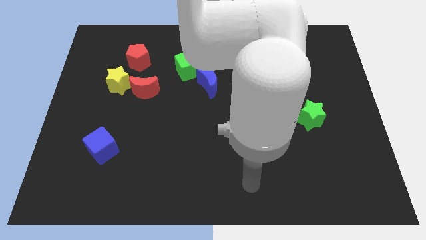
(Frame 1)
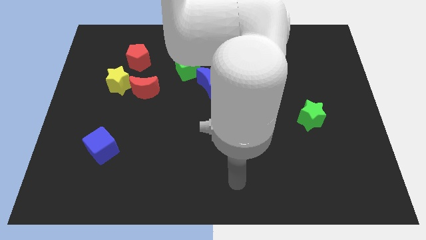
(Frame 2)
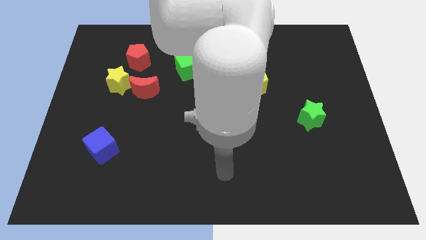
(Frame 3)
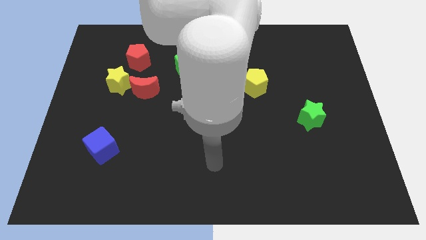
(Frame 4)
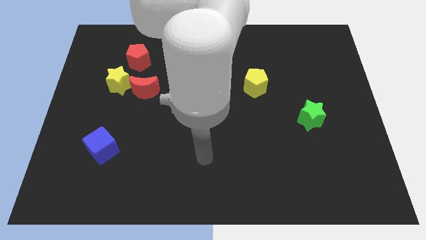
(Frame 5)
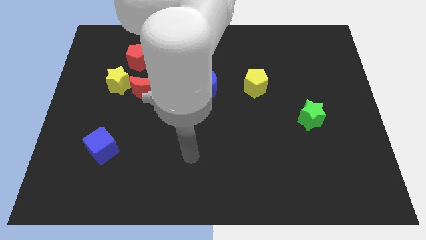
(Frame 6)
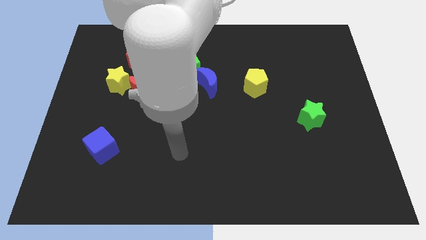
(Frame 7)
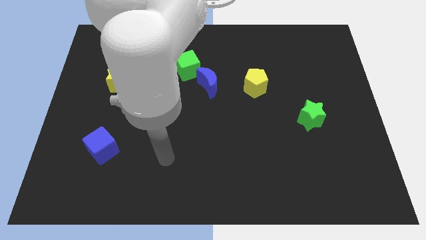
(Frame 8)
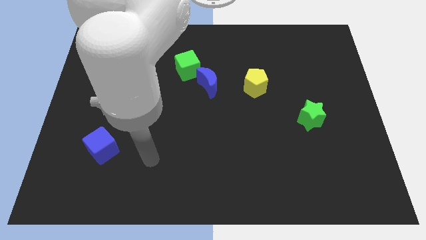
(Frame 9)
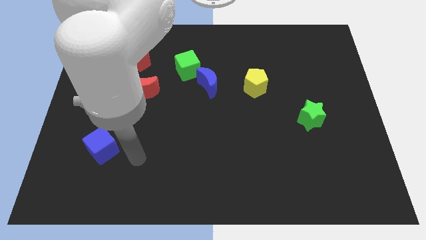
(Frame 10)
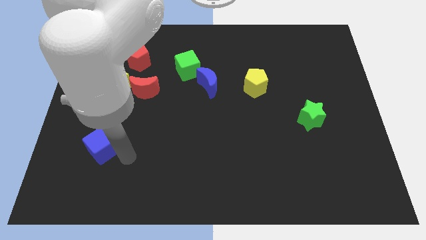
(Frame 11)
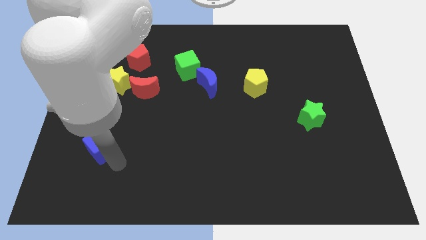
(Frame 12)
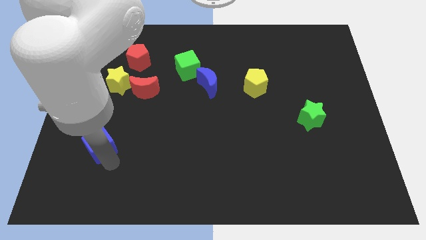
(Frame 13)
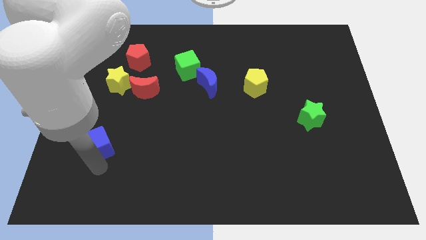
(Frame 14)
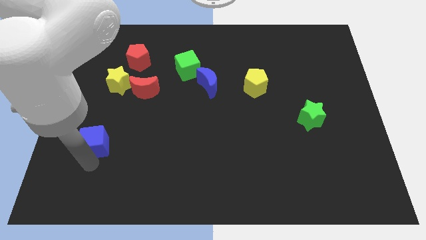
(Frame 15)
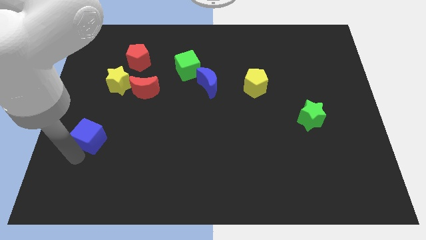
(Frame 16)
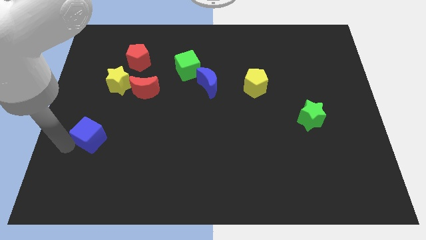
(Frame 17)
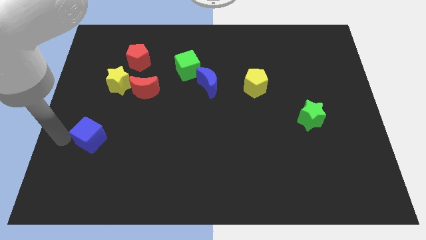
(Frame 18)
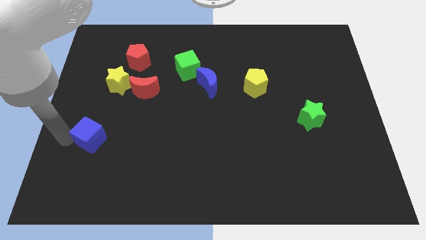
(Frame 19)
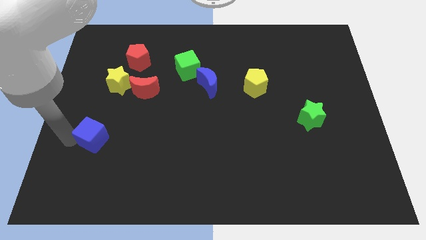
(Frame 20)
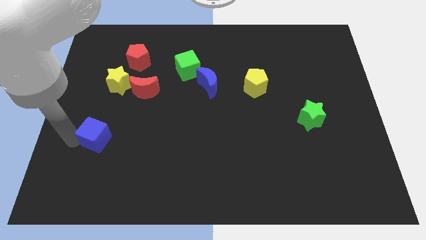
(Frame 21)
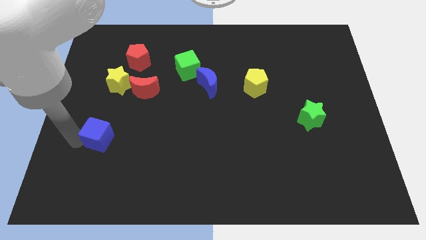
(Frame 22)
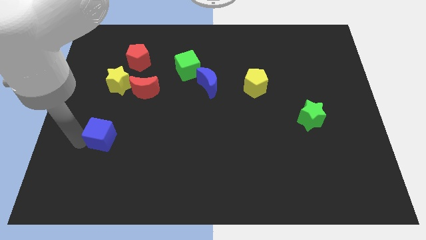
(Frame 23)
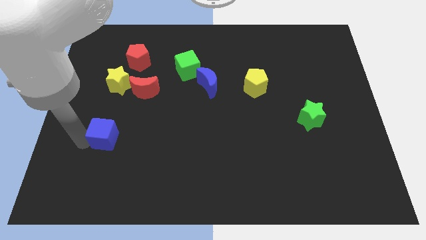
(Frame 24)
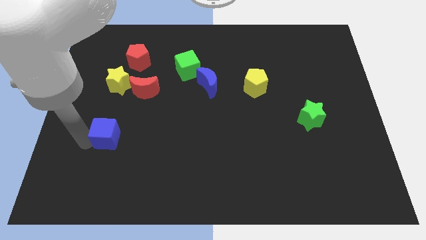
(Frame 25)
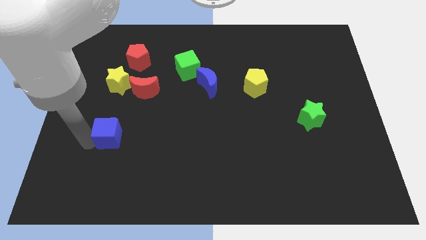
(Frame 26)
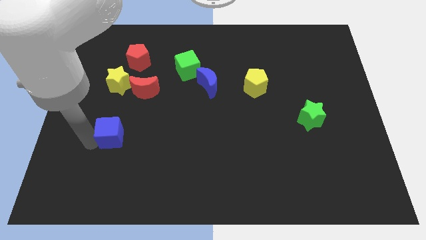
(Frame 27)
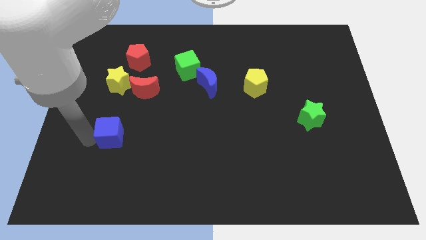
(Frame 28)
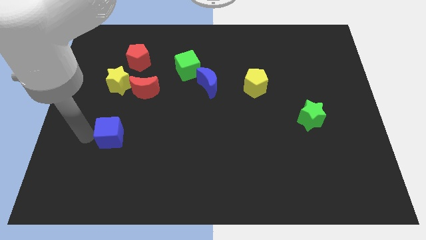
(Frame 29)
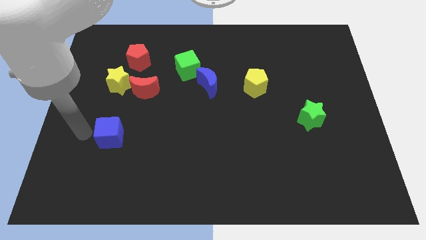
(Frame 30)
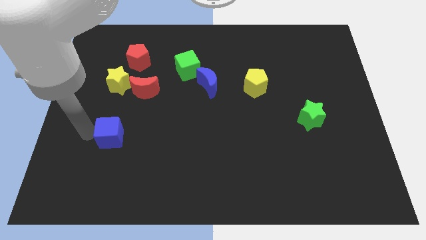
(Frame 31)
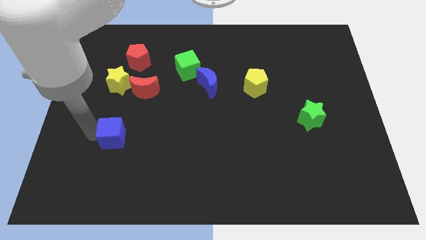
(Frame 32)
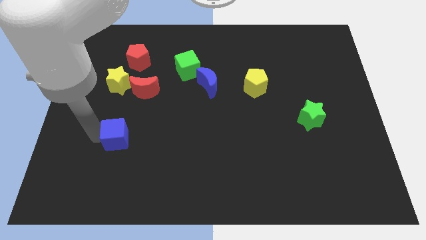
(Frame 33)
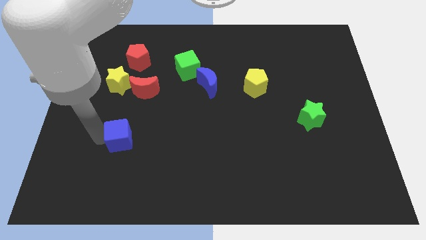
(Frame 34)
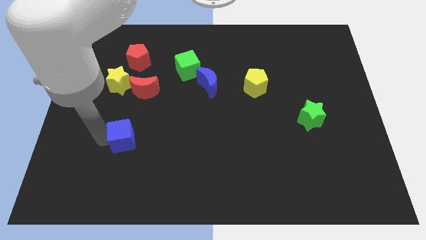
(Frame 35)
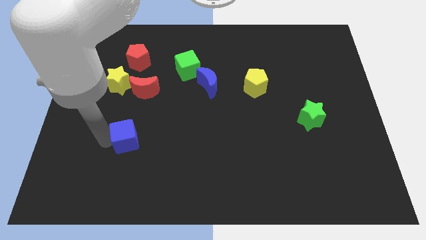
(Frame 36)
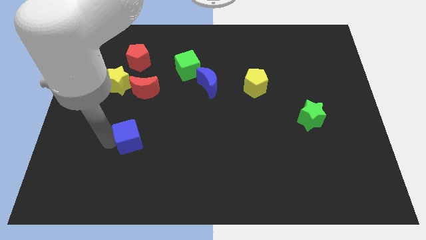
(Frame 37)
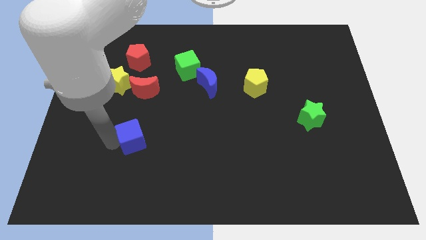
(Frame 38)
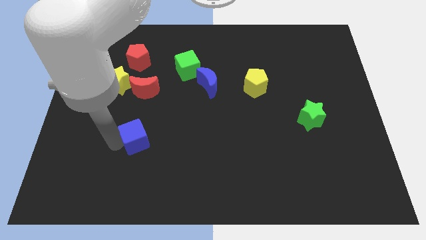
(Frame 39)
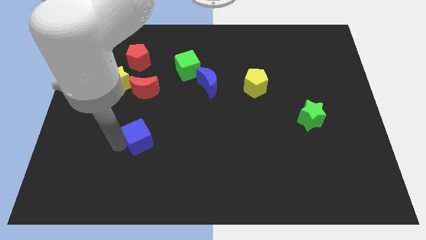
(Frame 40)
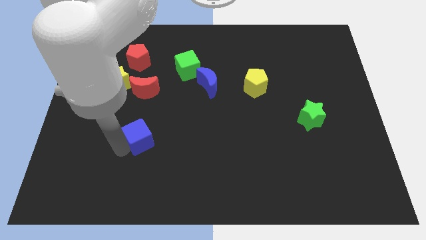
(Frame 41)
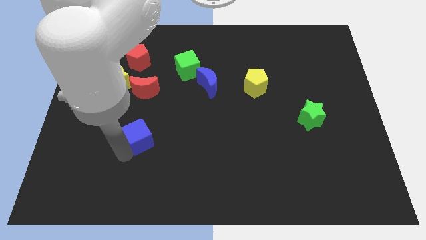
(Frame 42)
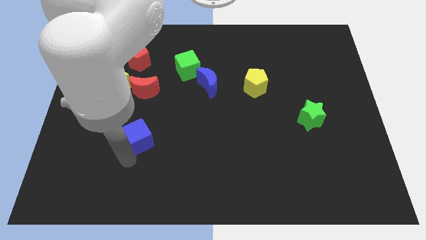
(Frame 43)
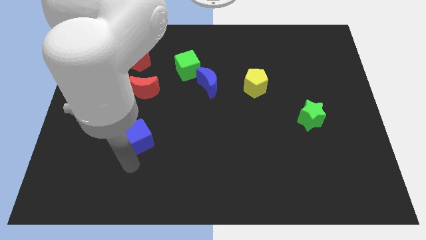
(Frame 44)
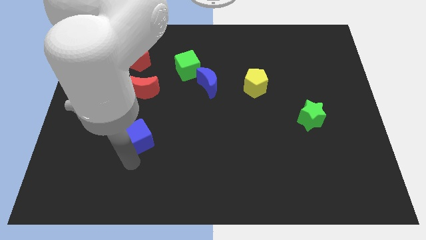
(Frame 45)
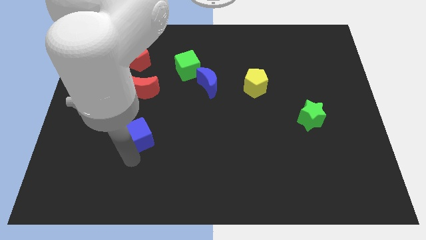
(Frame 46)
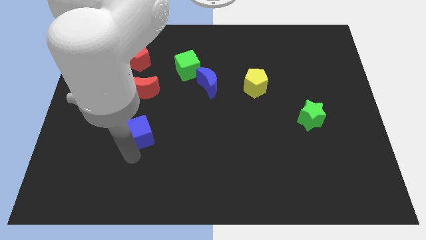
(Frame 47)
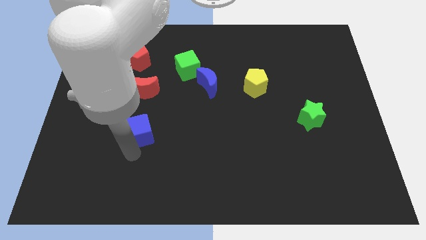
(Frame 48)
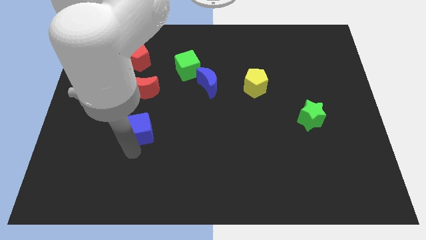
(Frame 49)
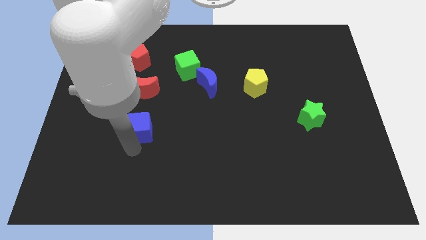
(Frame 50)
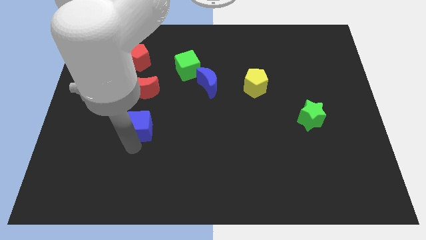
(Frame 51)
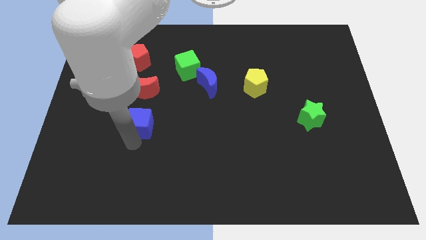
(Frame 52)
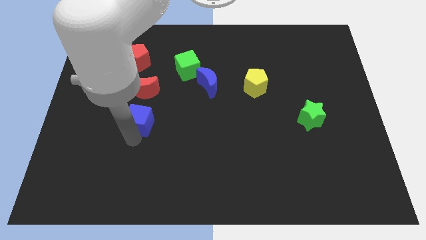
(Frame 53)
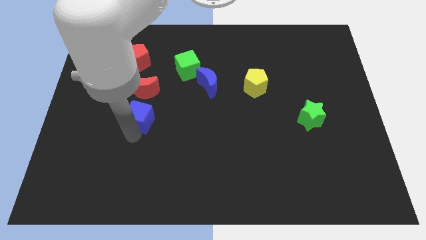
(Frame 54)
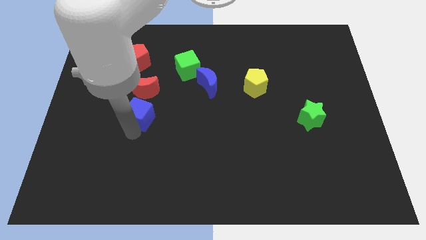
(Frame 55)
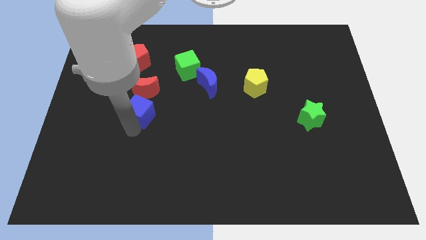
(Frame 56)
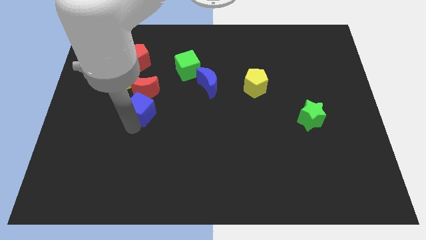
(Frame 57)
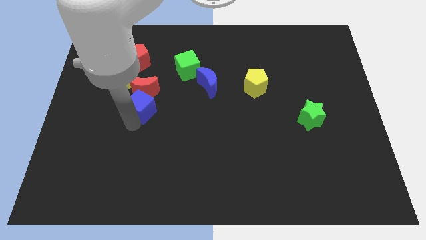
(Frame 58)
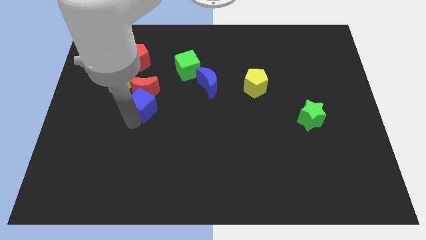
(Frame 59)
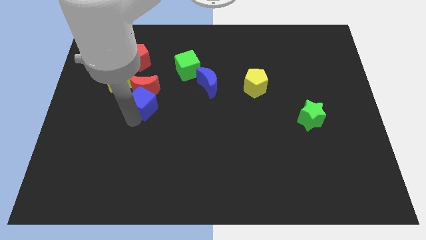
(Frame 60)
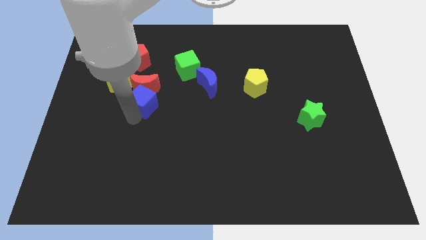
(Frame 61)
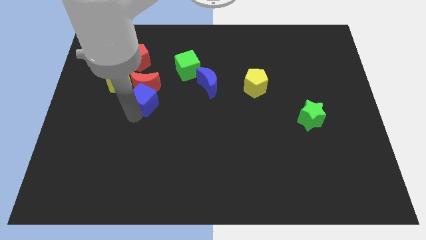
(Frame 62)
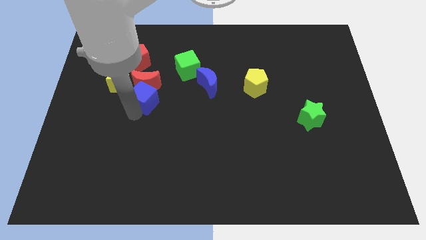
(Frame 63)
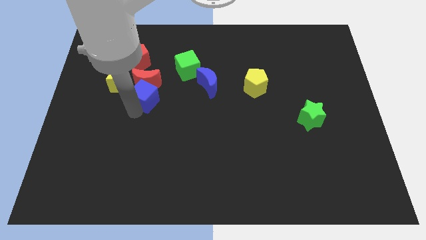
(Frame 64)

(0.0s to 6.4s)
put the blue cube to the right side of the yellow star

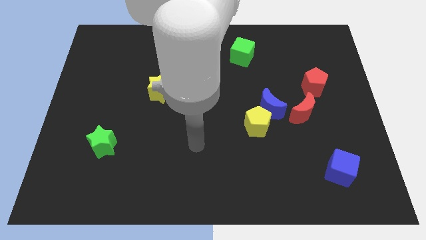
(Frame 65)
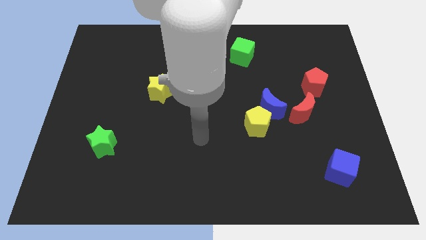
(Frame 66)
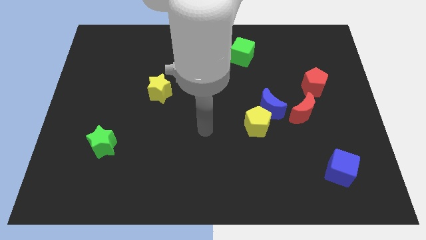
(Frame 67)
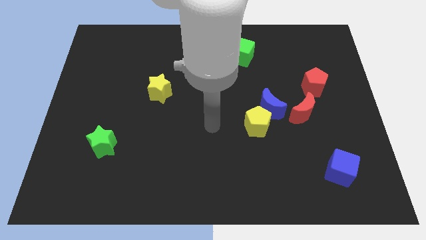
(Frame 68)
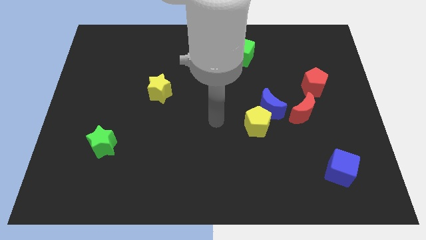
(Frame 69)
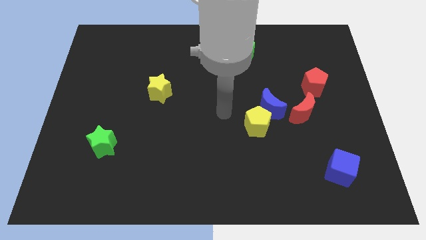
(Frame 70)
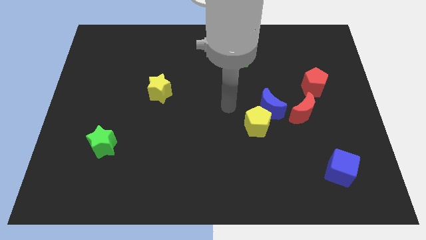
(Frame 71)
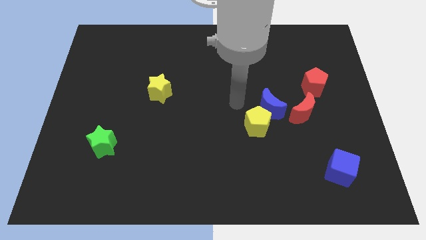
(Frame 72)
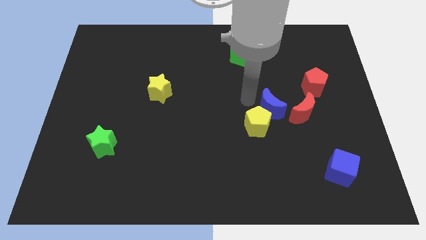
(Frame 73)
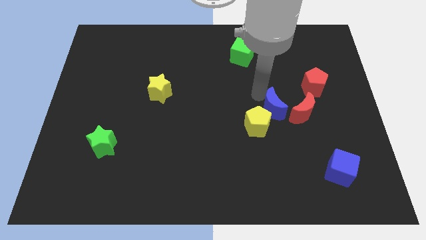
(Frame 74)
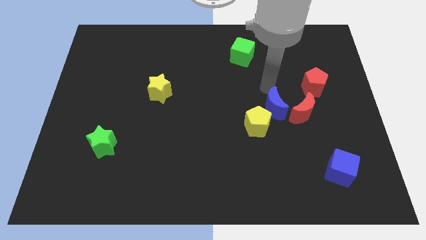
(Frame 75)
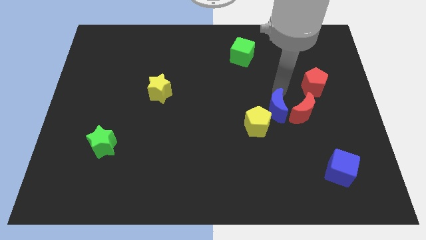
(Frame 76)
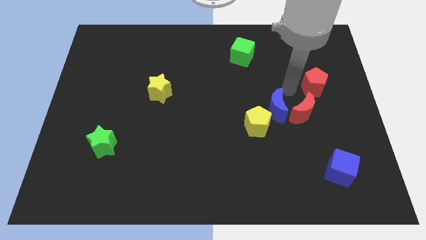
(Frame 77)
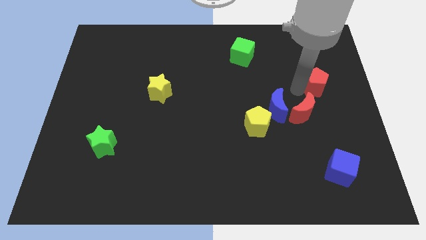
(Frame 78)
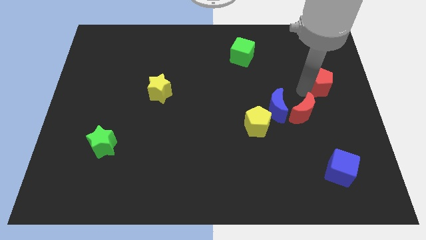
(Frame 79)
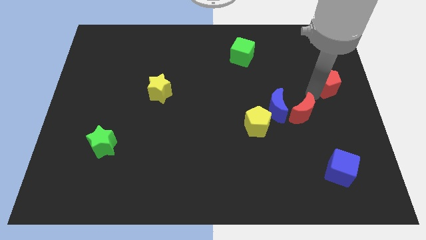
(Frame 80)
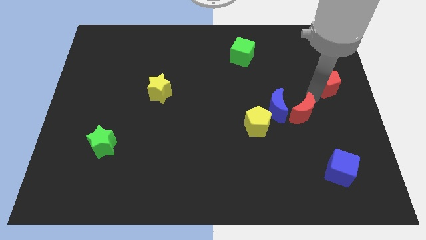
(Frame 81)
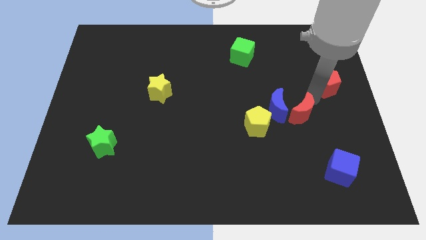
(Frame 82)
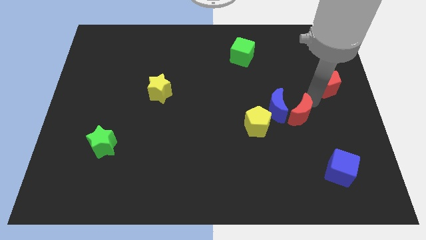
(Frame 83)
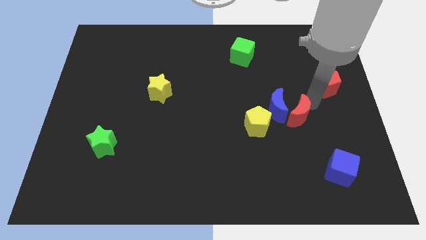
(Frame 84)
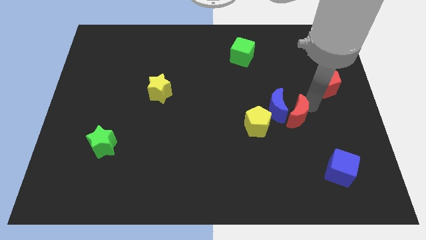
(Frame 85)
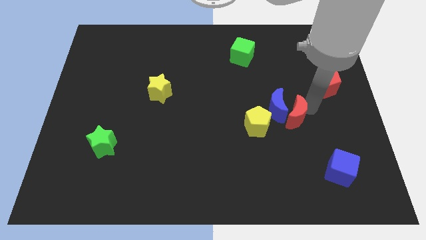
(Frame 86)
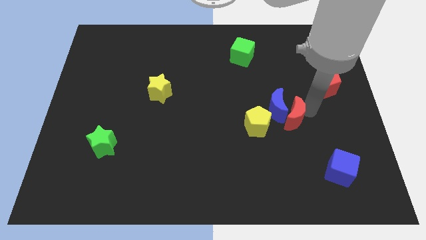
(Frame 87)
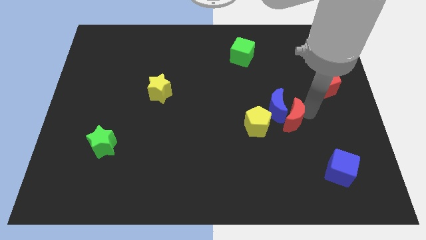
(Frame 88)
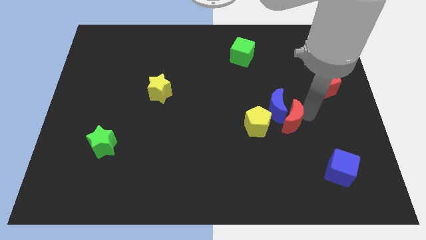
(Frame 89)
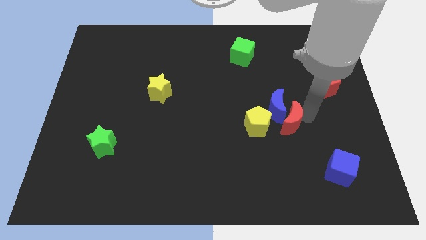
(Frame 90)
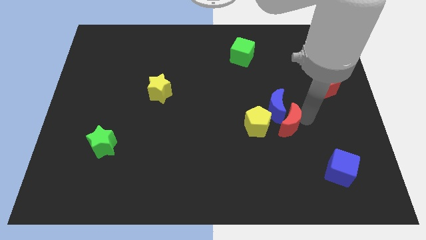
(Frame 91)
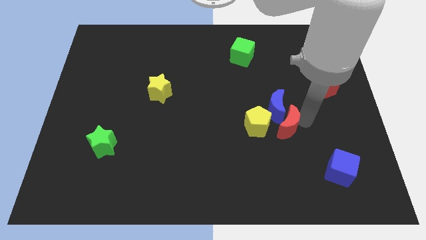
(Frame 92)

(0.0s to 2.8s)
push the red moon diagonally down and to the right of the yellow pentagon
